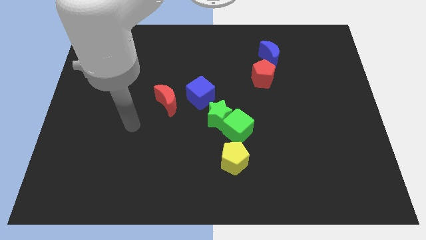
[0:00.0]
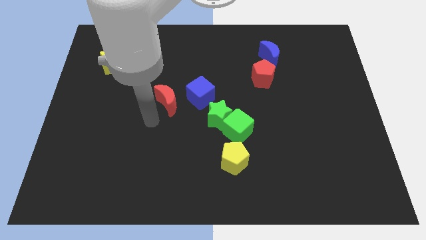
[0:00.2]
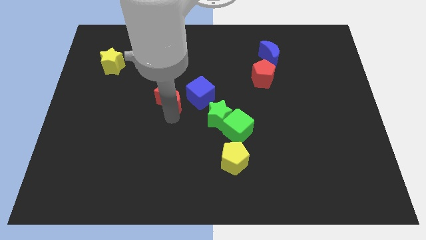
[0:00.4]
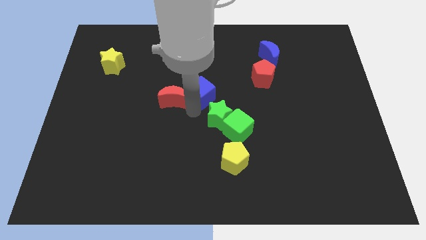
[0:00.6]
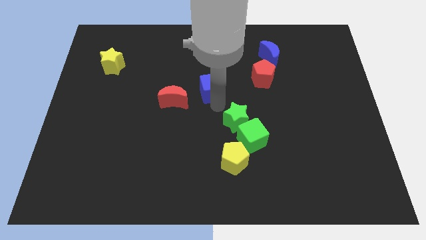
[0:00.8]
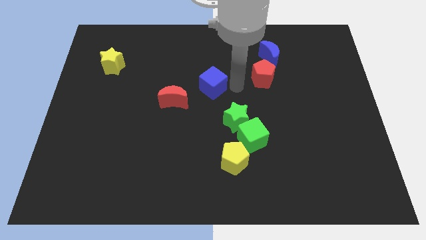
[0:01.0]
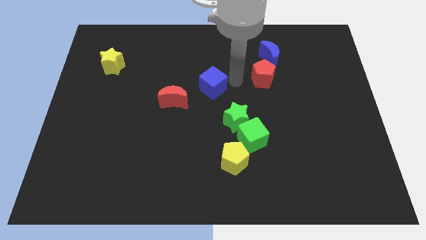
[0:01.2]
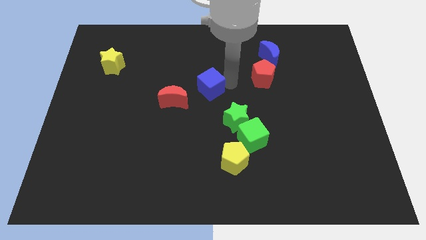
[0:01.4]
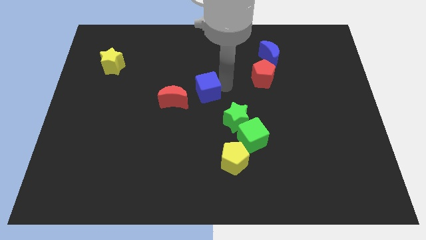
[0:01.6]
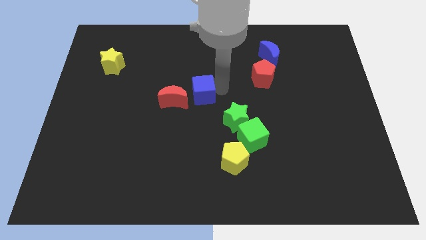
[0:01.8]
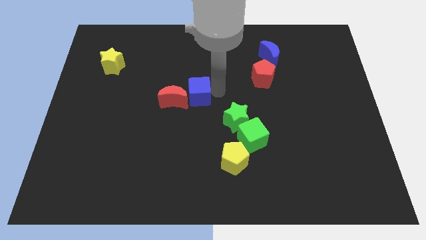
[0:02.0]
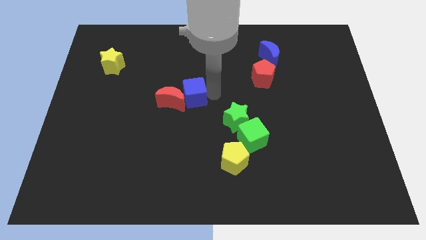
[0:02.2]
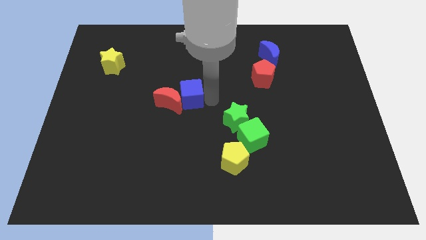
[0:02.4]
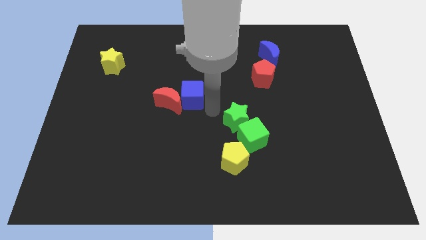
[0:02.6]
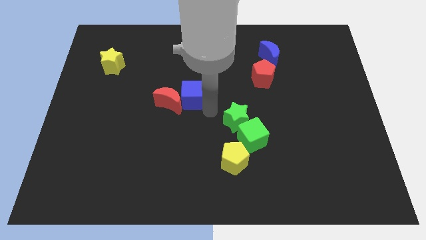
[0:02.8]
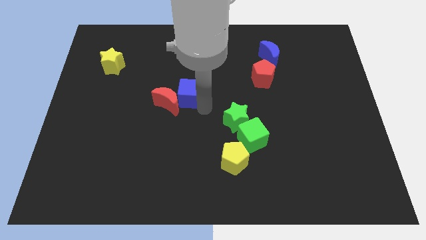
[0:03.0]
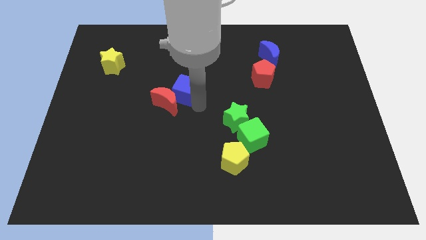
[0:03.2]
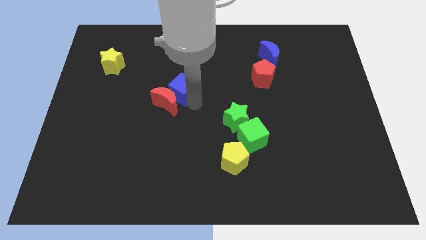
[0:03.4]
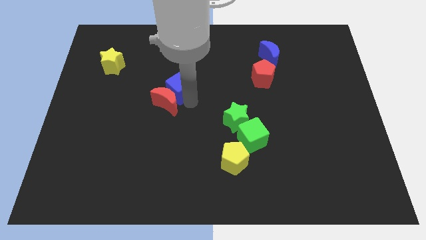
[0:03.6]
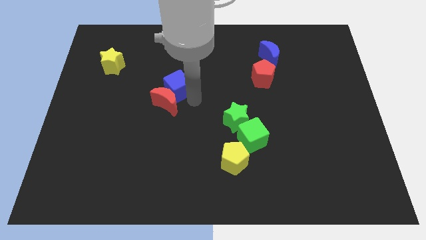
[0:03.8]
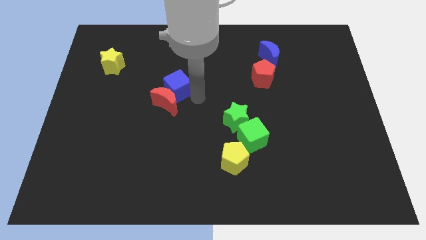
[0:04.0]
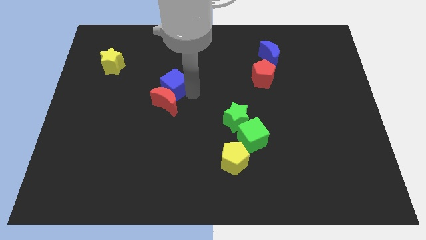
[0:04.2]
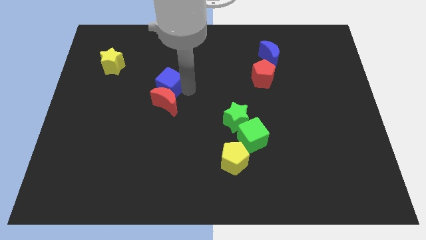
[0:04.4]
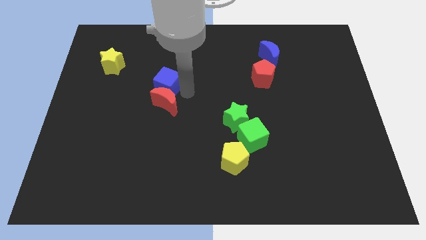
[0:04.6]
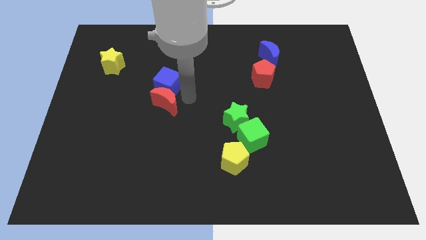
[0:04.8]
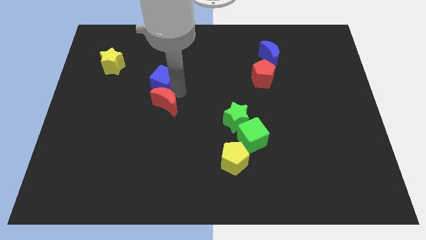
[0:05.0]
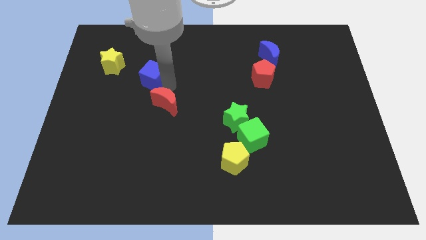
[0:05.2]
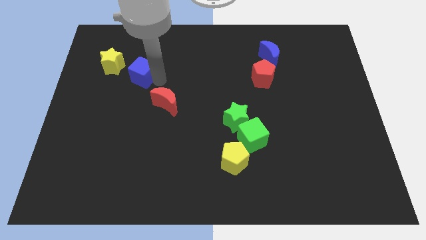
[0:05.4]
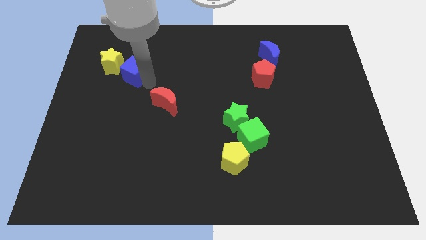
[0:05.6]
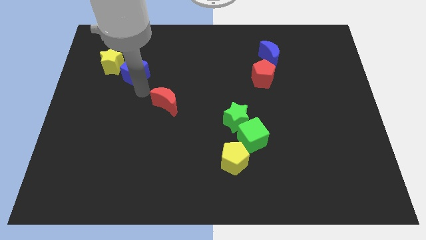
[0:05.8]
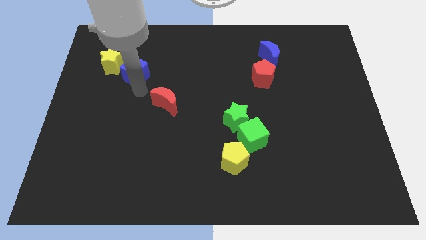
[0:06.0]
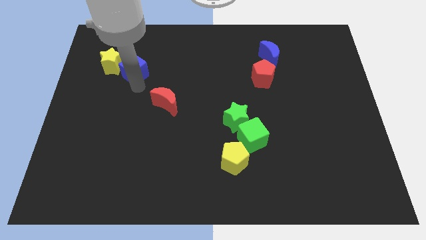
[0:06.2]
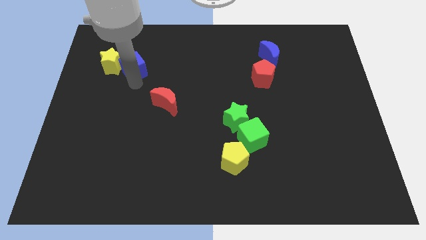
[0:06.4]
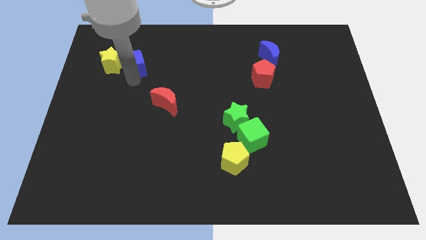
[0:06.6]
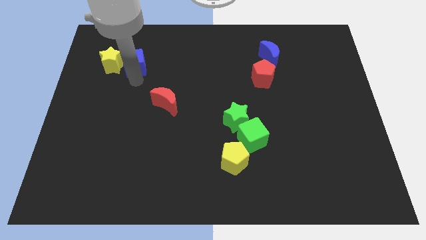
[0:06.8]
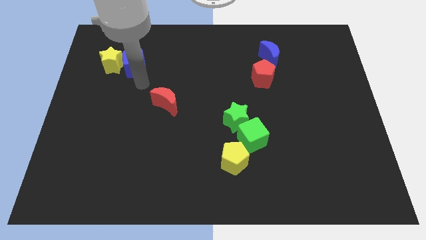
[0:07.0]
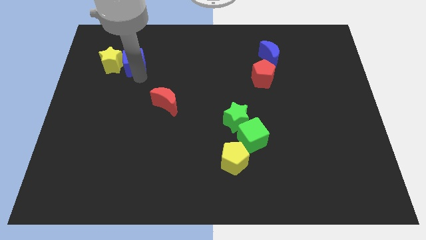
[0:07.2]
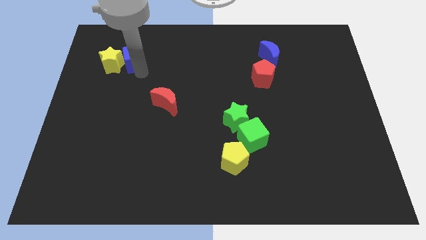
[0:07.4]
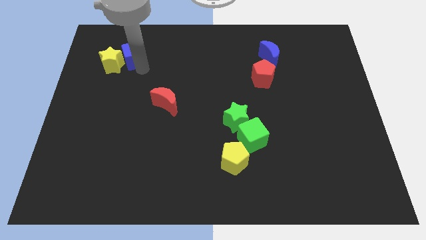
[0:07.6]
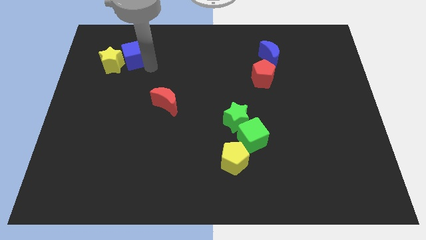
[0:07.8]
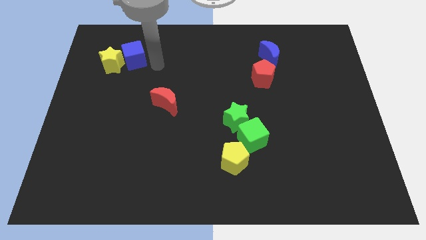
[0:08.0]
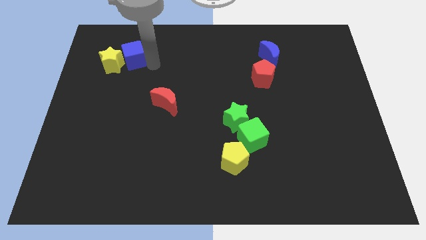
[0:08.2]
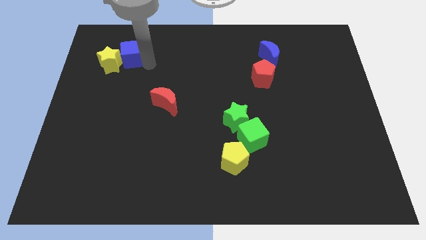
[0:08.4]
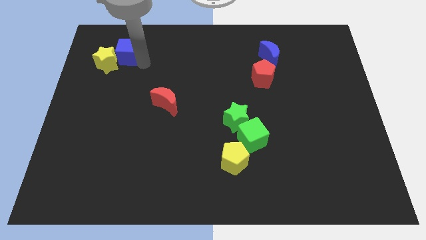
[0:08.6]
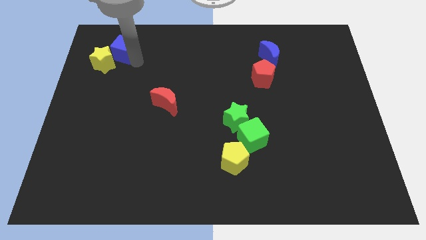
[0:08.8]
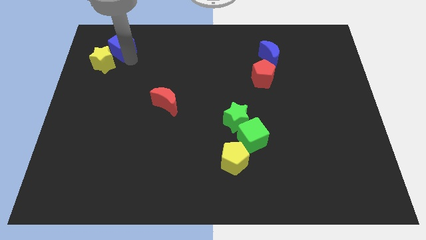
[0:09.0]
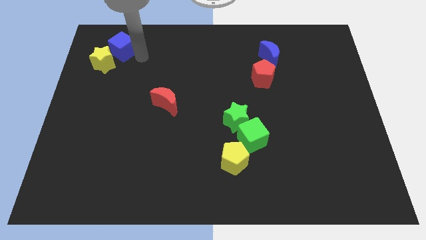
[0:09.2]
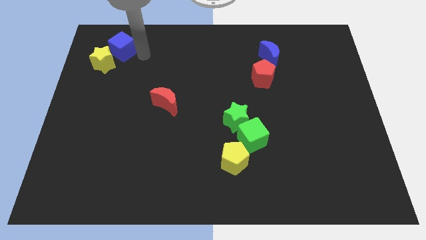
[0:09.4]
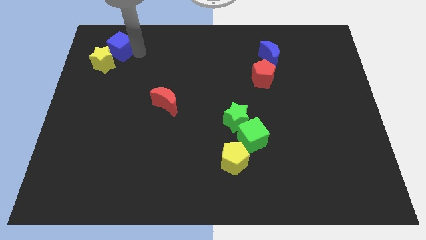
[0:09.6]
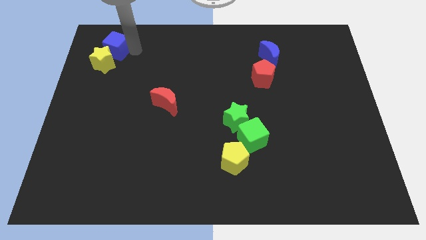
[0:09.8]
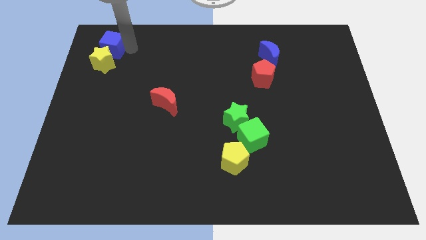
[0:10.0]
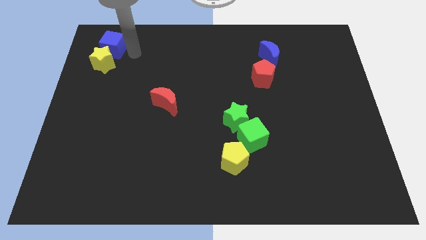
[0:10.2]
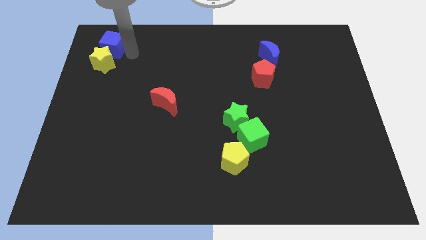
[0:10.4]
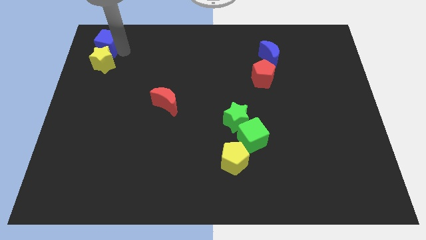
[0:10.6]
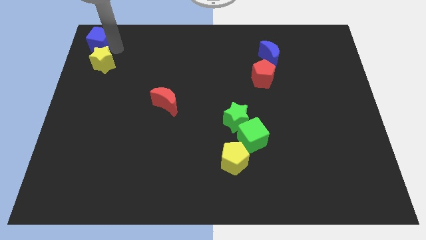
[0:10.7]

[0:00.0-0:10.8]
slide the blue cube to the top left of the board

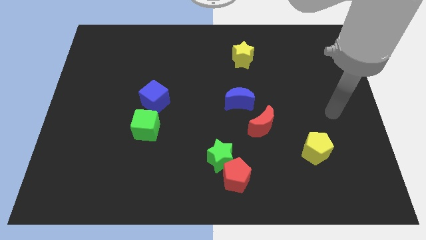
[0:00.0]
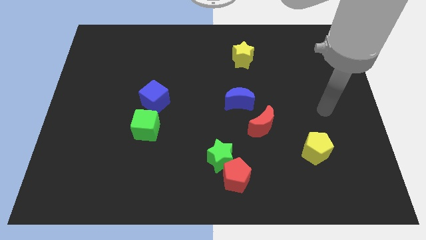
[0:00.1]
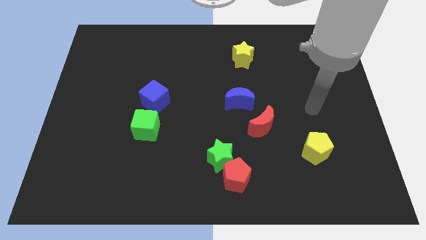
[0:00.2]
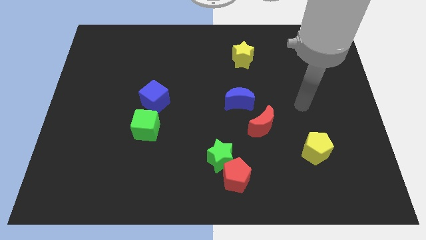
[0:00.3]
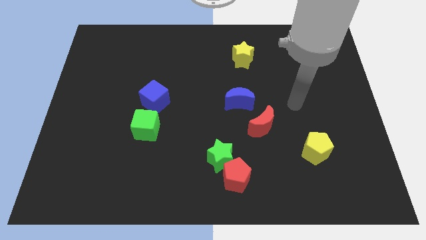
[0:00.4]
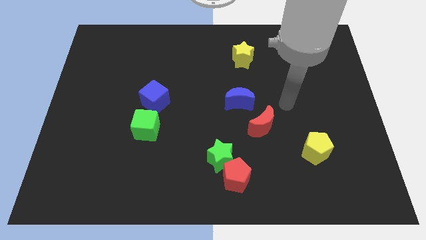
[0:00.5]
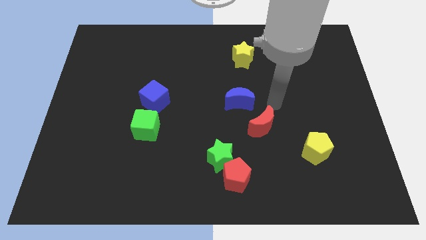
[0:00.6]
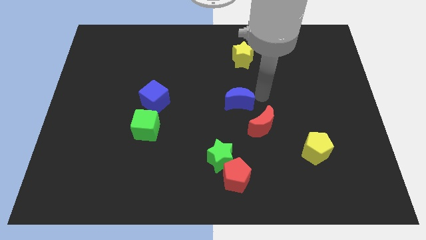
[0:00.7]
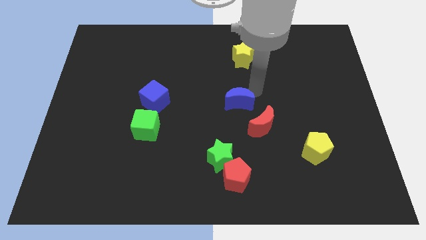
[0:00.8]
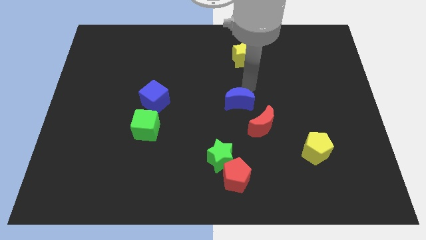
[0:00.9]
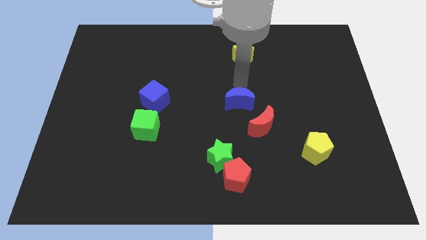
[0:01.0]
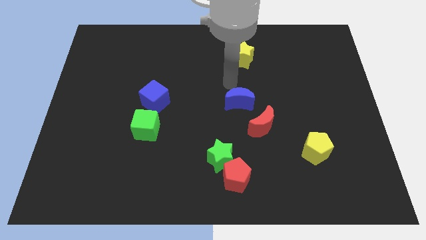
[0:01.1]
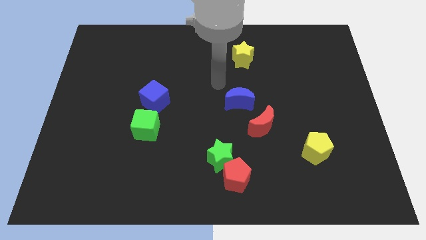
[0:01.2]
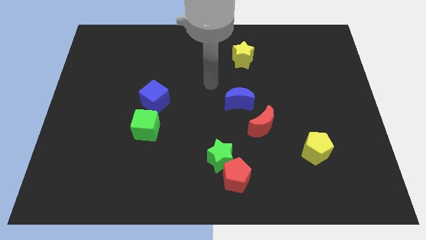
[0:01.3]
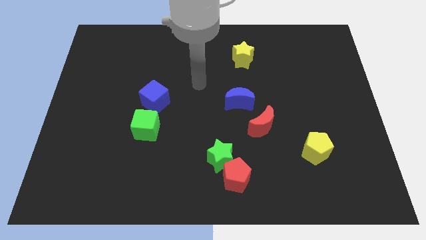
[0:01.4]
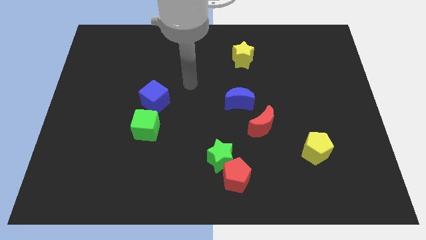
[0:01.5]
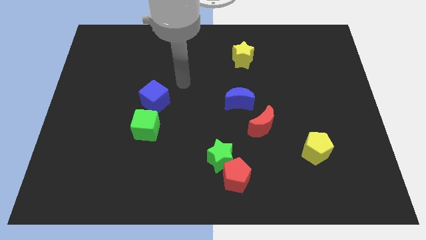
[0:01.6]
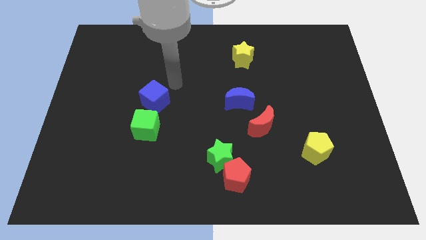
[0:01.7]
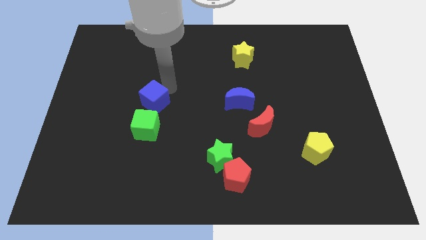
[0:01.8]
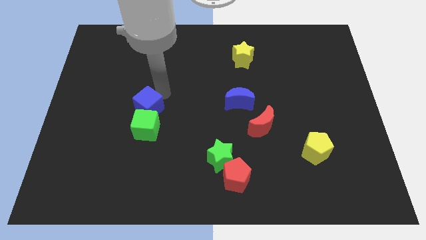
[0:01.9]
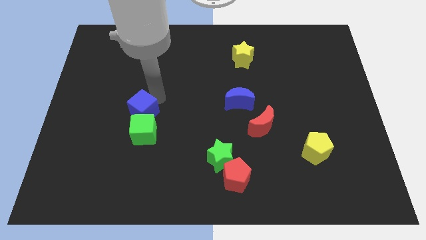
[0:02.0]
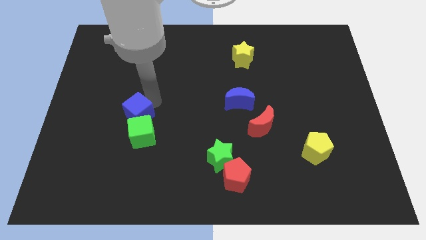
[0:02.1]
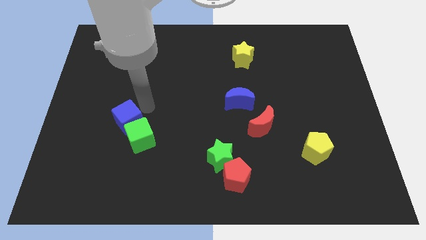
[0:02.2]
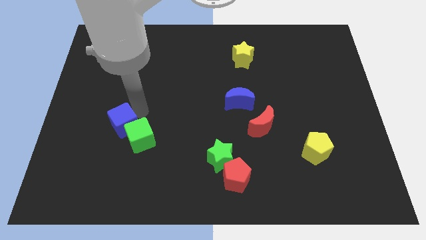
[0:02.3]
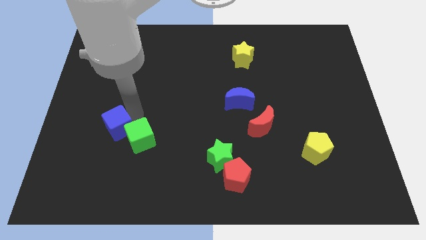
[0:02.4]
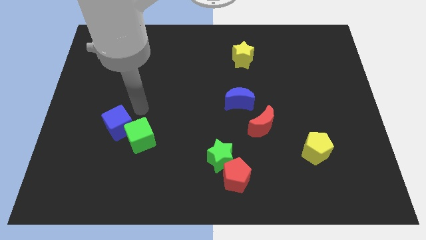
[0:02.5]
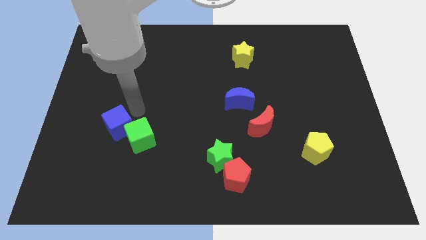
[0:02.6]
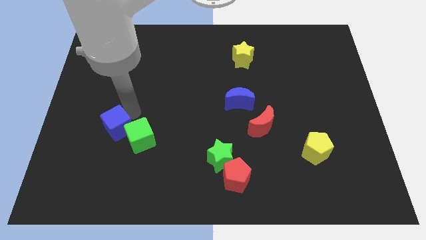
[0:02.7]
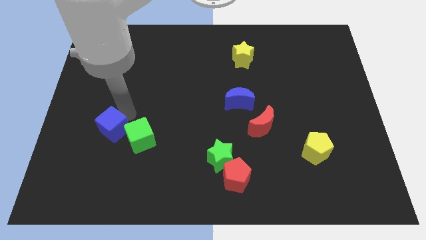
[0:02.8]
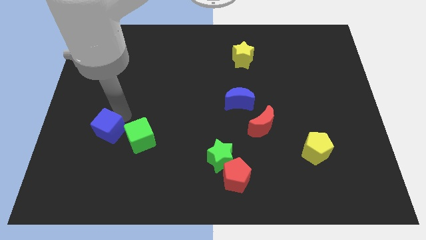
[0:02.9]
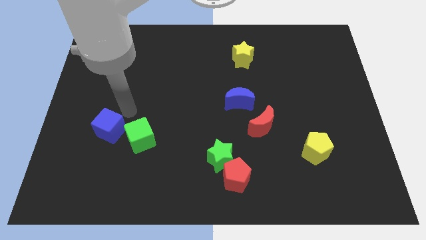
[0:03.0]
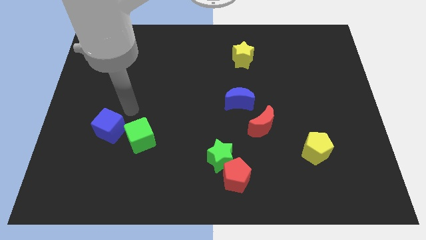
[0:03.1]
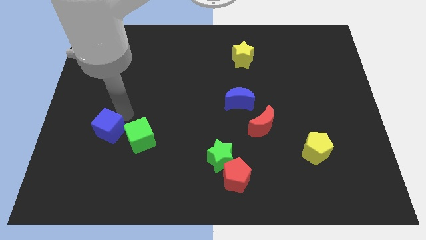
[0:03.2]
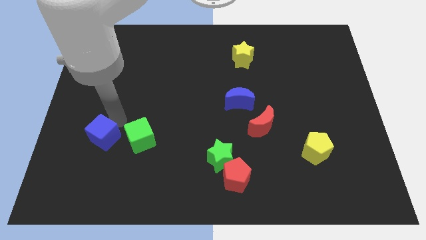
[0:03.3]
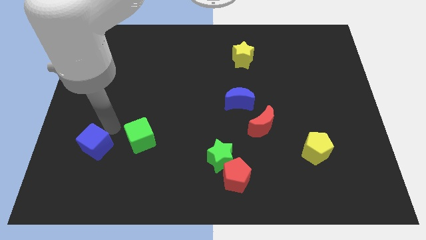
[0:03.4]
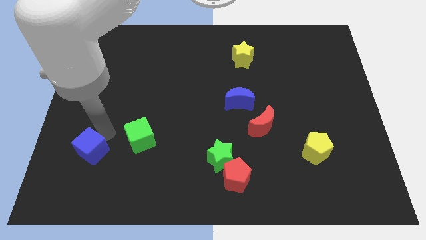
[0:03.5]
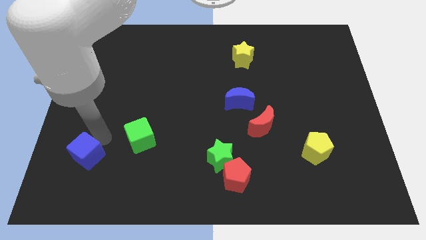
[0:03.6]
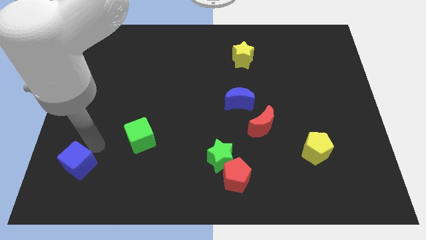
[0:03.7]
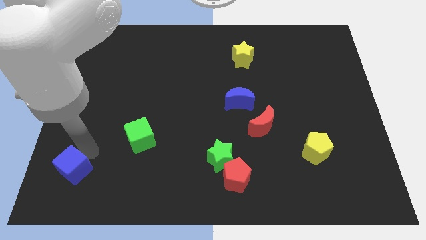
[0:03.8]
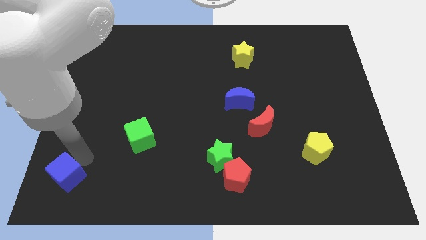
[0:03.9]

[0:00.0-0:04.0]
put the blue cube to the lower left corner
